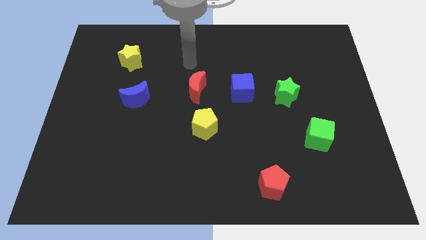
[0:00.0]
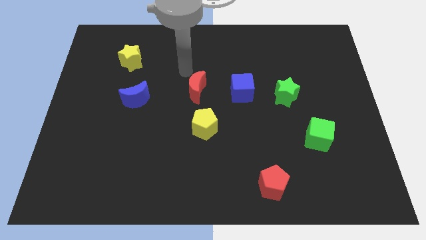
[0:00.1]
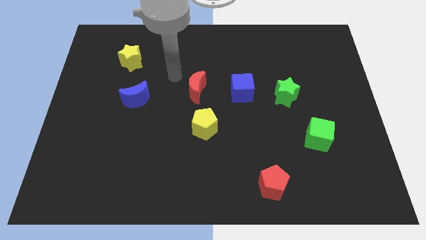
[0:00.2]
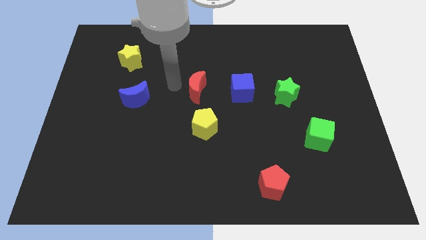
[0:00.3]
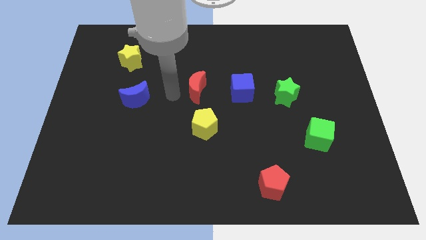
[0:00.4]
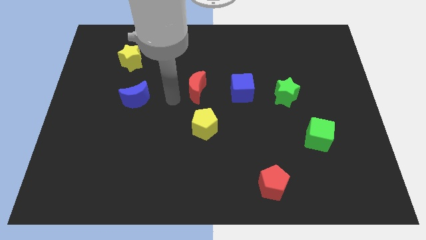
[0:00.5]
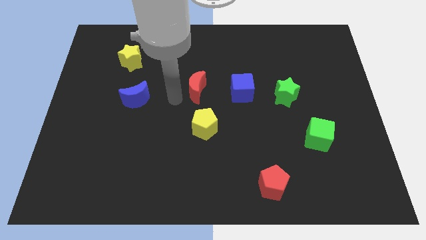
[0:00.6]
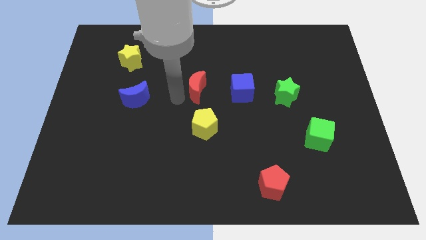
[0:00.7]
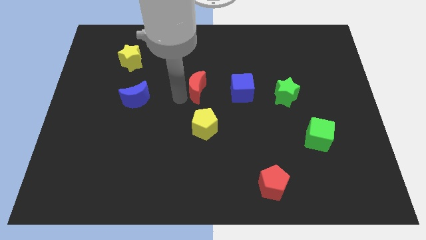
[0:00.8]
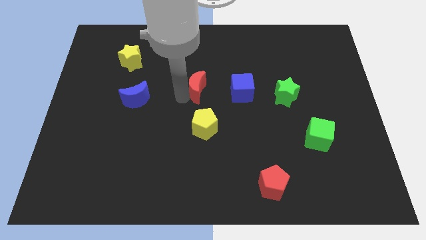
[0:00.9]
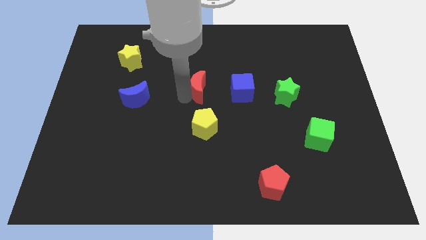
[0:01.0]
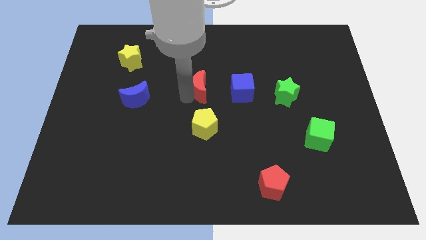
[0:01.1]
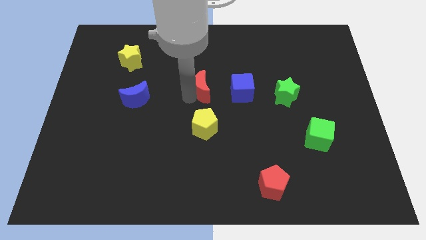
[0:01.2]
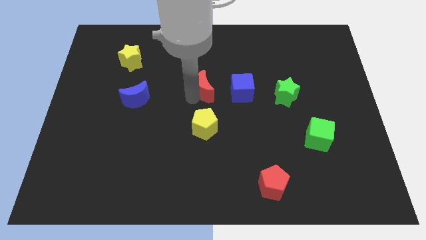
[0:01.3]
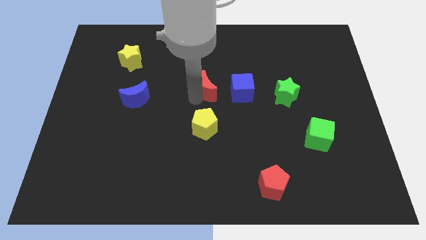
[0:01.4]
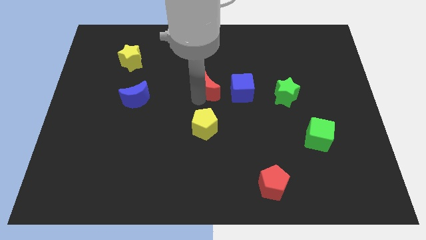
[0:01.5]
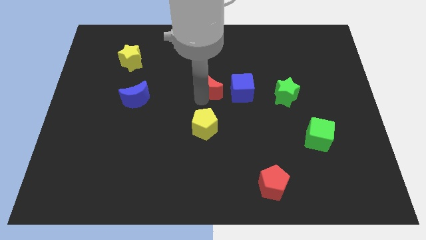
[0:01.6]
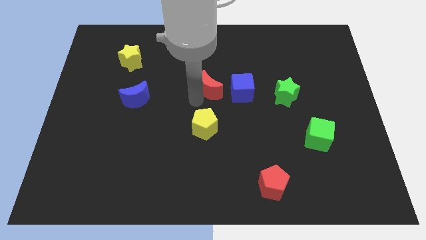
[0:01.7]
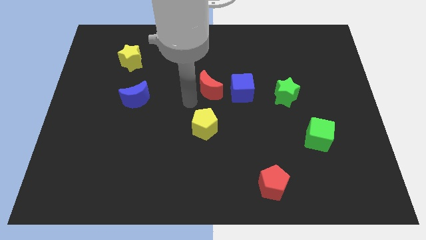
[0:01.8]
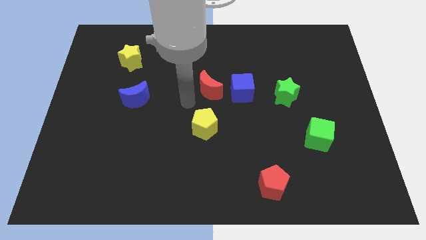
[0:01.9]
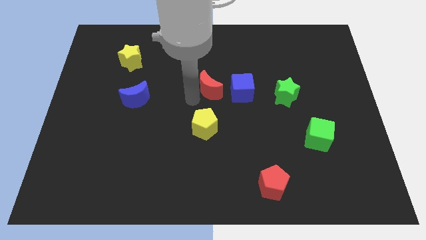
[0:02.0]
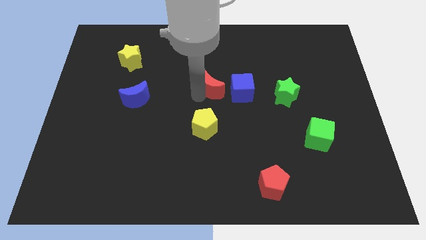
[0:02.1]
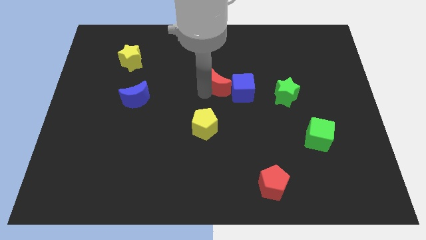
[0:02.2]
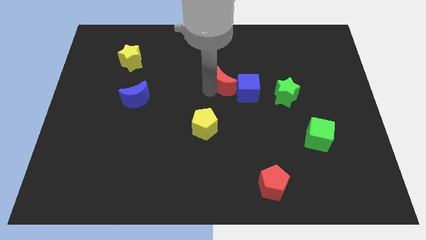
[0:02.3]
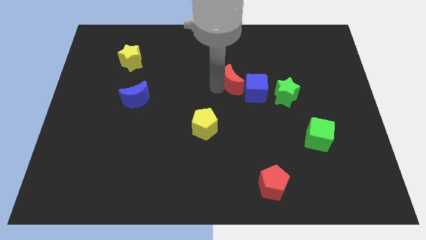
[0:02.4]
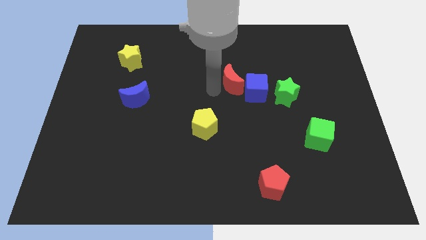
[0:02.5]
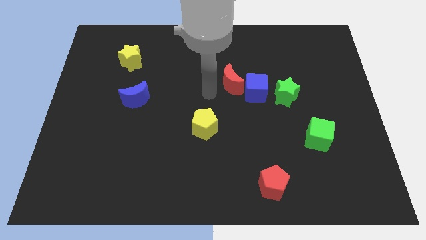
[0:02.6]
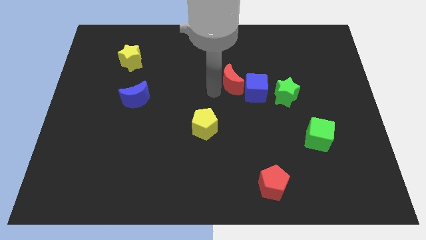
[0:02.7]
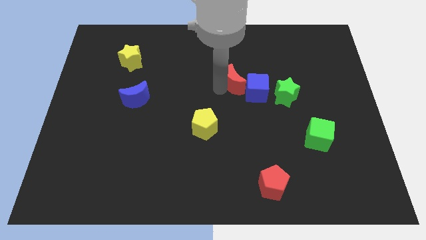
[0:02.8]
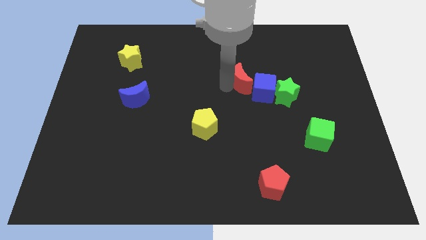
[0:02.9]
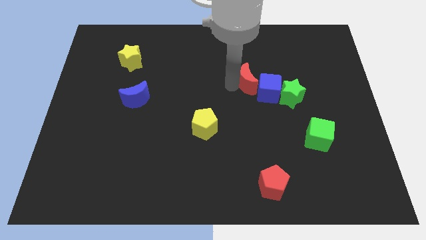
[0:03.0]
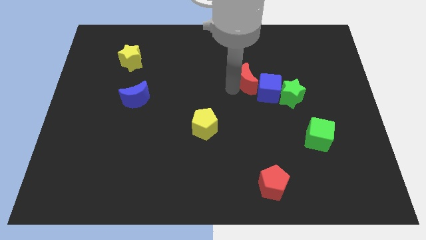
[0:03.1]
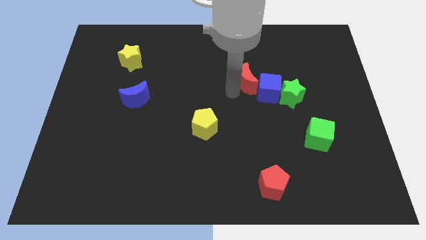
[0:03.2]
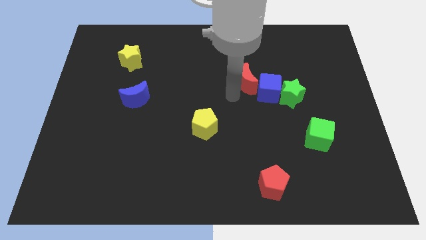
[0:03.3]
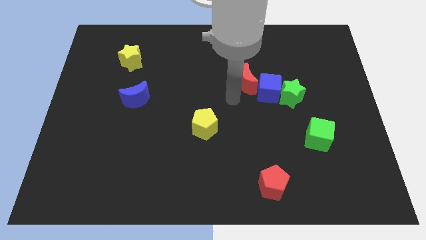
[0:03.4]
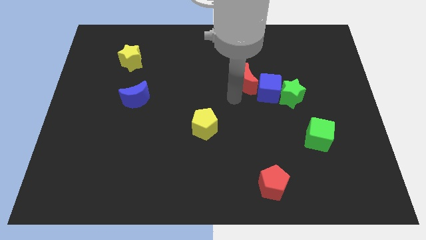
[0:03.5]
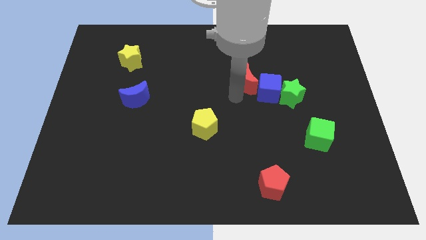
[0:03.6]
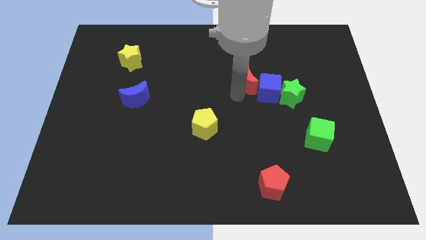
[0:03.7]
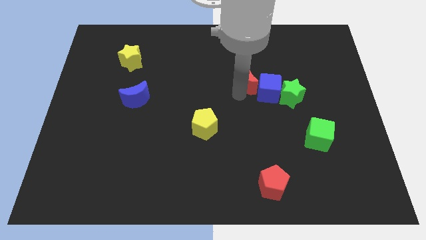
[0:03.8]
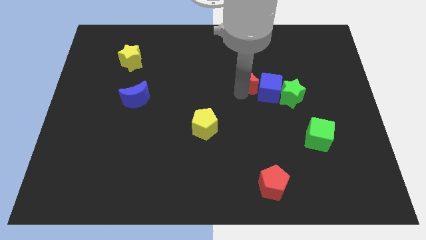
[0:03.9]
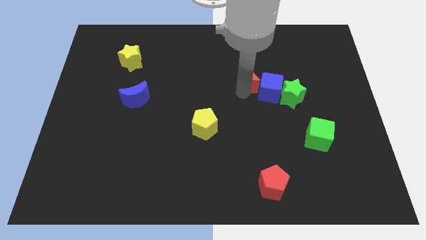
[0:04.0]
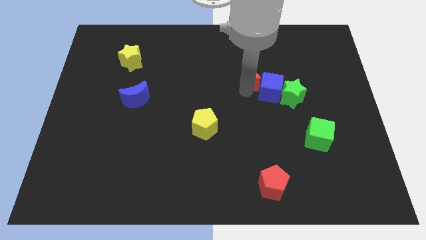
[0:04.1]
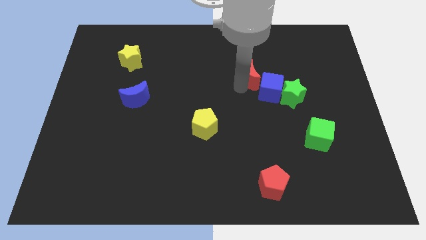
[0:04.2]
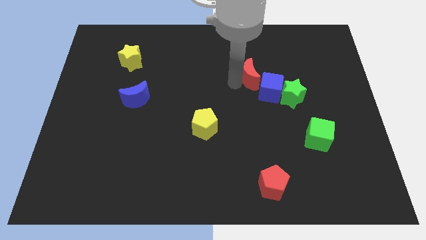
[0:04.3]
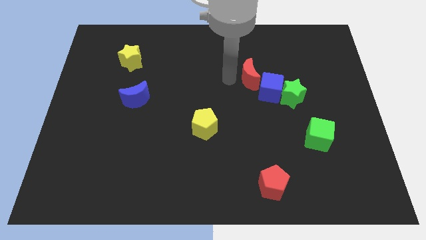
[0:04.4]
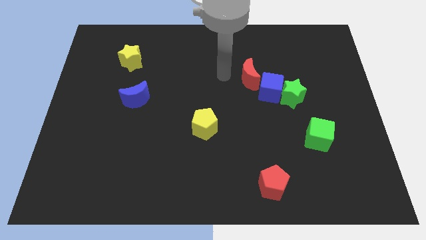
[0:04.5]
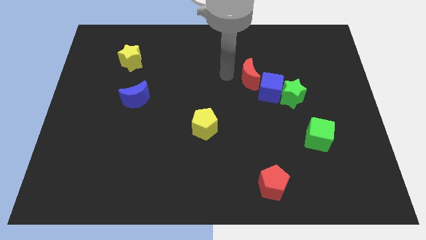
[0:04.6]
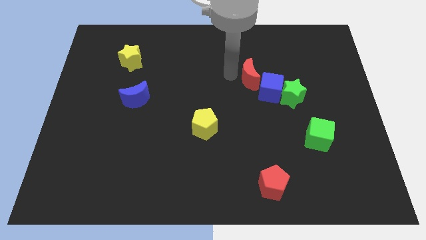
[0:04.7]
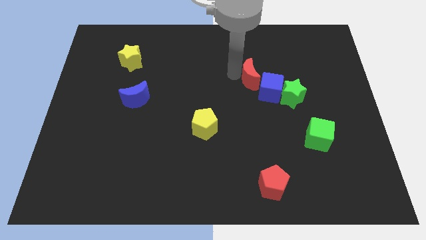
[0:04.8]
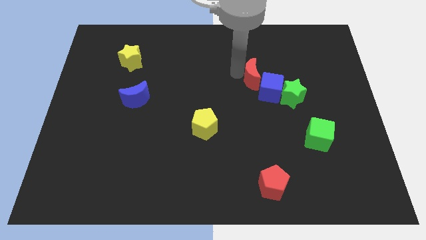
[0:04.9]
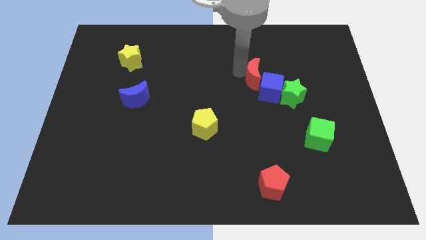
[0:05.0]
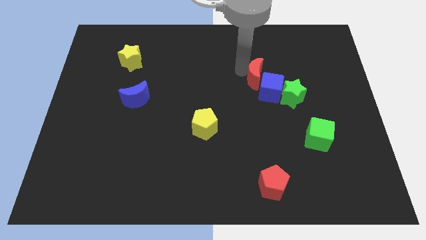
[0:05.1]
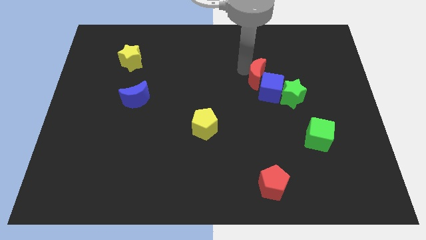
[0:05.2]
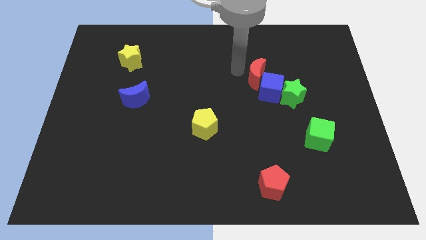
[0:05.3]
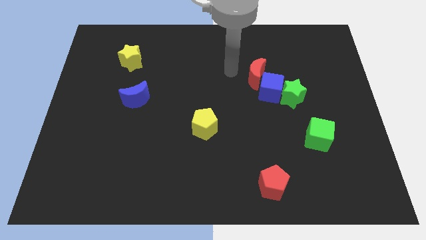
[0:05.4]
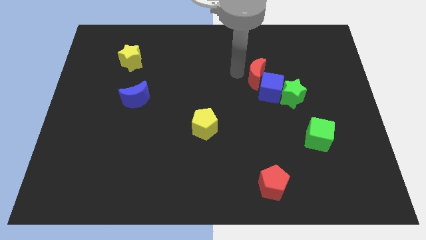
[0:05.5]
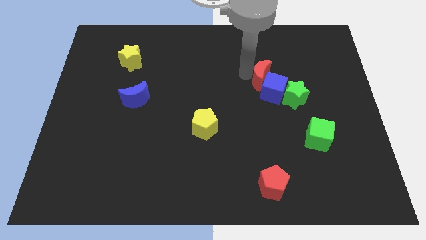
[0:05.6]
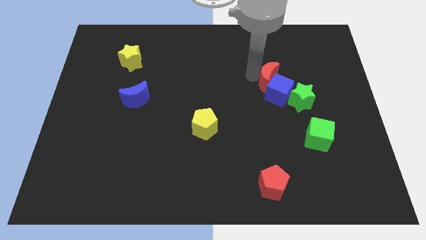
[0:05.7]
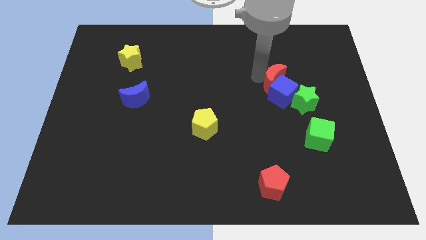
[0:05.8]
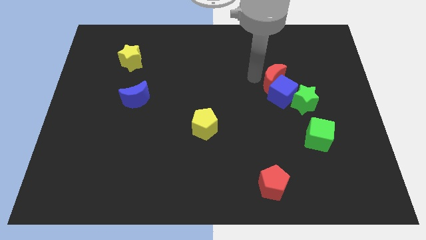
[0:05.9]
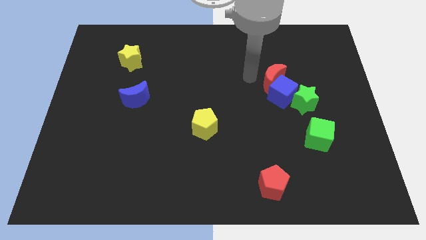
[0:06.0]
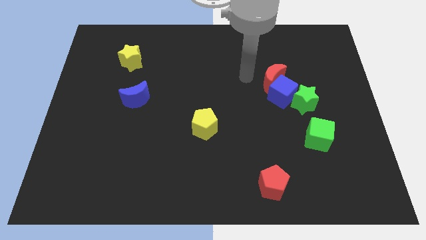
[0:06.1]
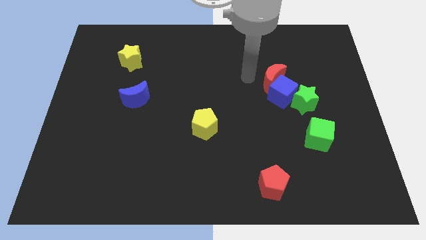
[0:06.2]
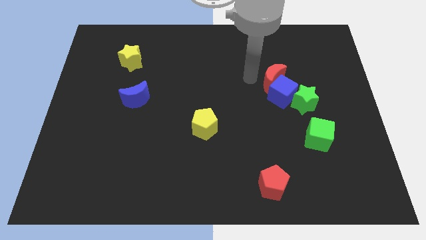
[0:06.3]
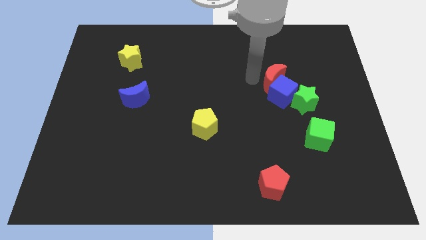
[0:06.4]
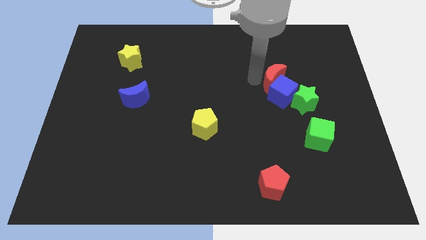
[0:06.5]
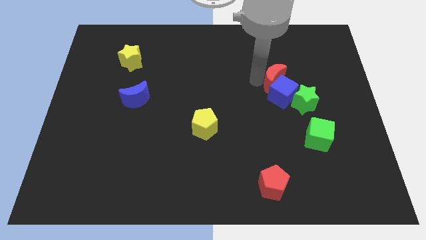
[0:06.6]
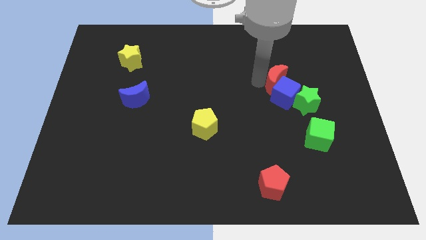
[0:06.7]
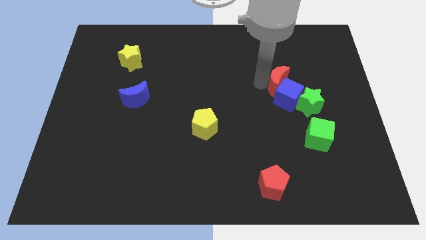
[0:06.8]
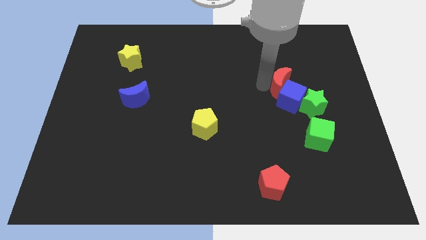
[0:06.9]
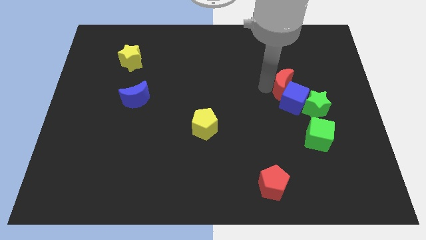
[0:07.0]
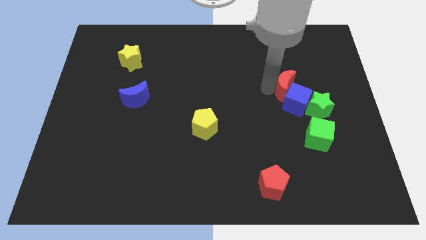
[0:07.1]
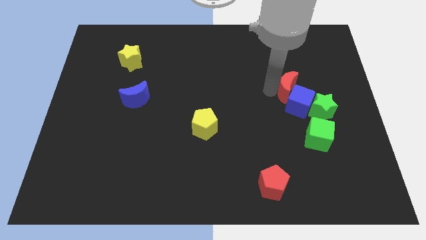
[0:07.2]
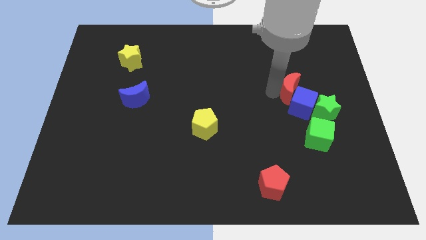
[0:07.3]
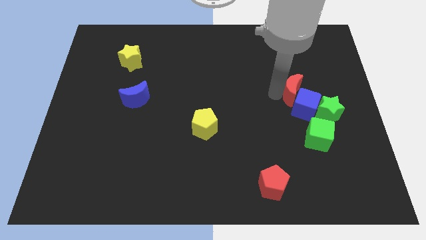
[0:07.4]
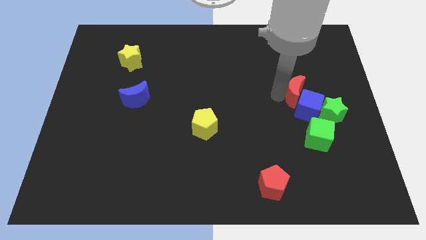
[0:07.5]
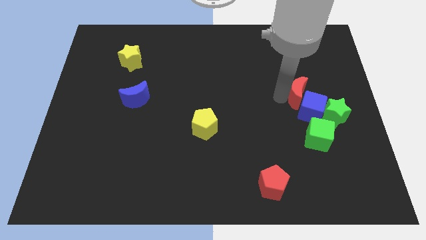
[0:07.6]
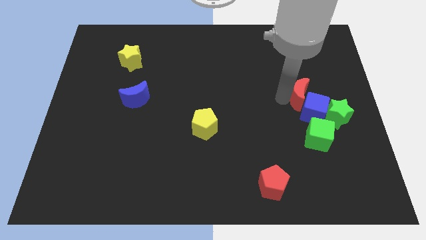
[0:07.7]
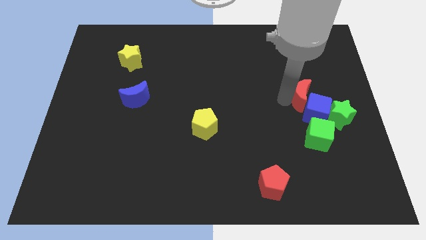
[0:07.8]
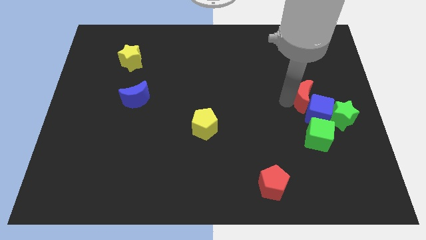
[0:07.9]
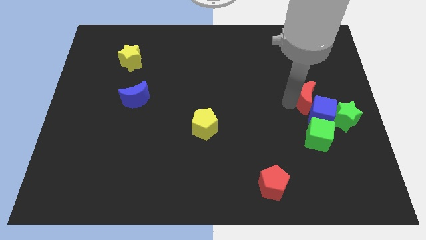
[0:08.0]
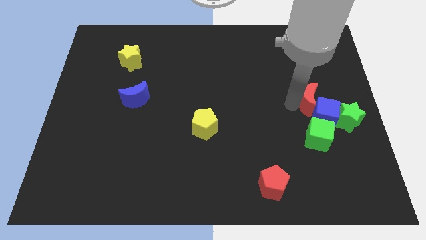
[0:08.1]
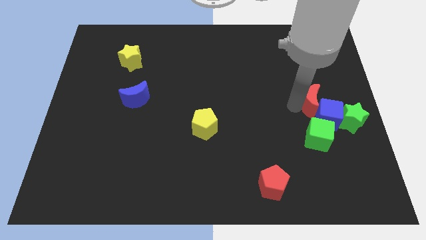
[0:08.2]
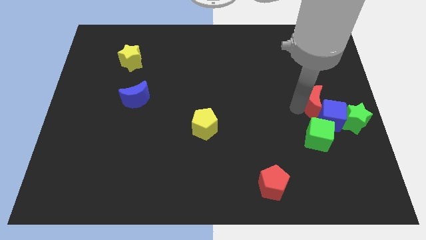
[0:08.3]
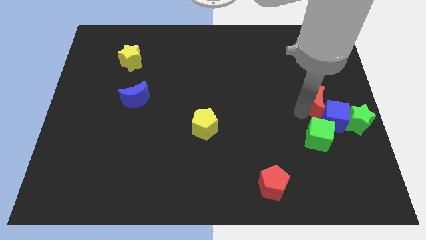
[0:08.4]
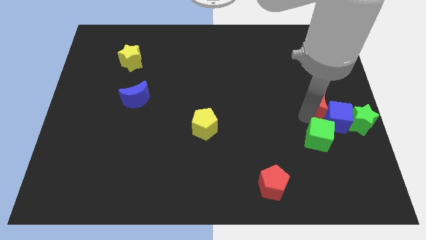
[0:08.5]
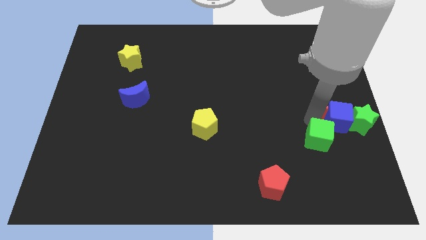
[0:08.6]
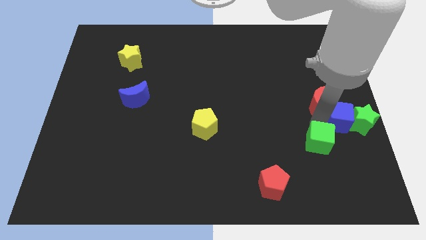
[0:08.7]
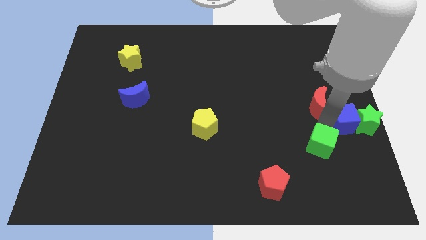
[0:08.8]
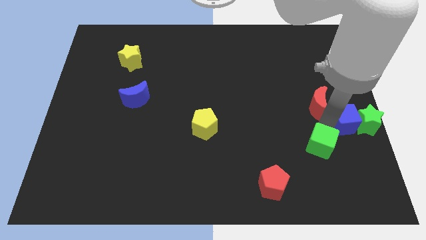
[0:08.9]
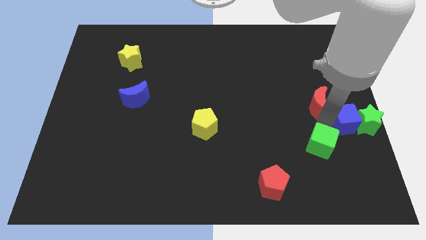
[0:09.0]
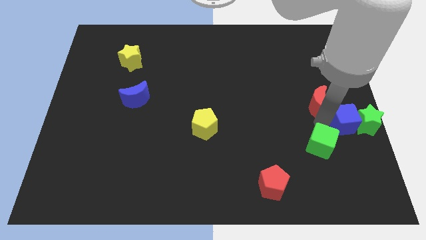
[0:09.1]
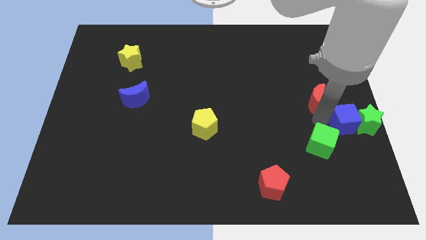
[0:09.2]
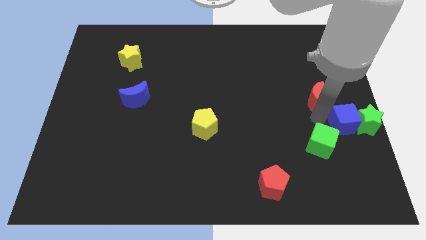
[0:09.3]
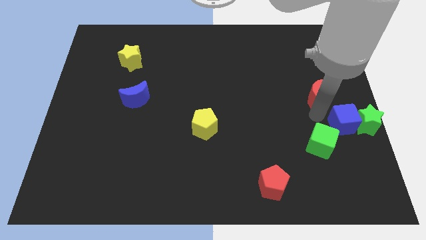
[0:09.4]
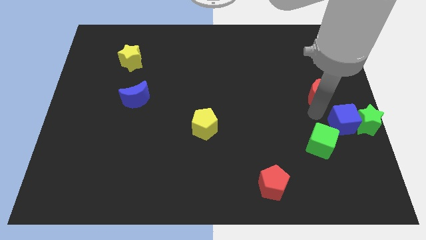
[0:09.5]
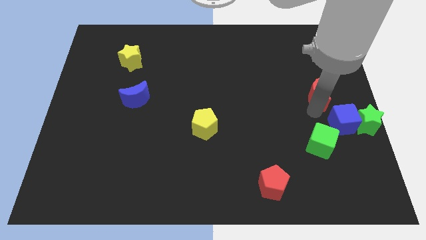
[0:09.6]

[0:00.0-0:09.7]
move the red moon to the right side of the board
